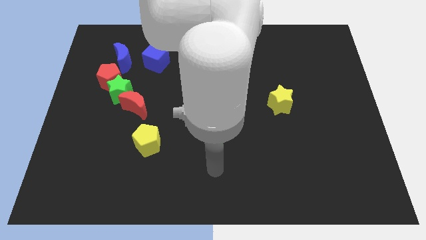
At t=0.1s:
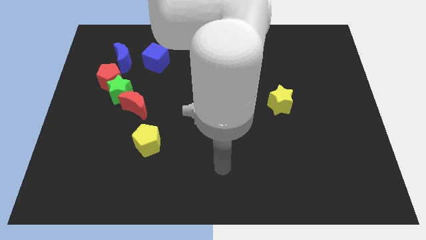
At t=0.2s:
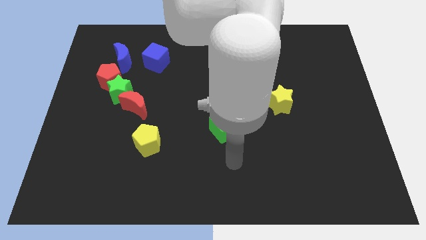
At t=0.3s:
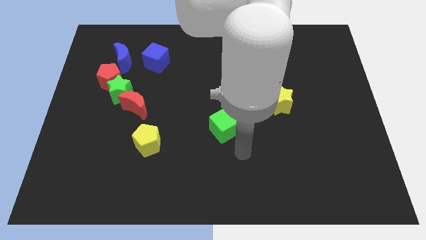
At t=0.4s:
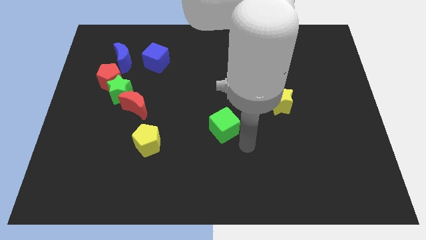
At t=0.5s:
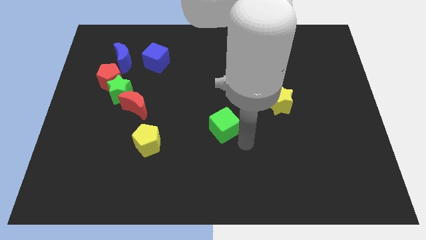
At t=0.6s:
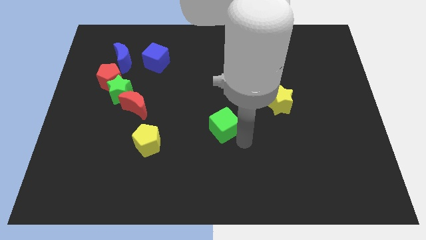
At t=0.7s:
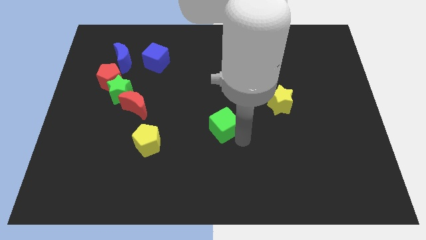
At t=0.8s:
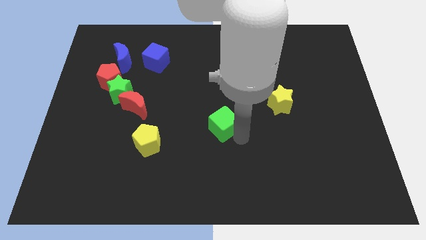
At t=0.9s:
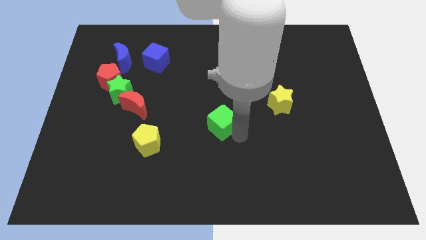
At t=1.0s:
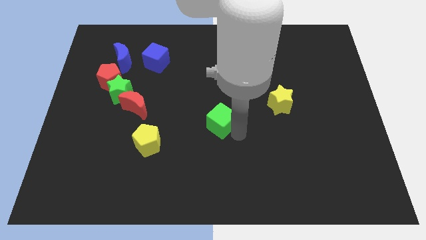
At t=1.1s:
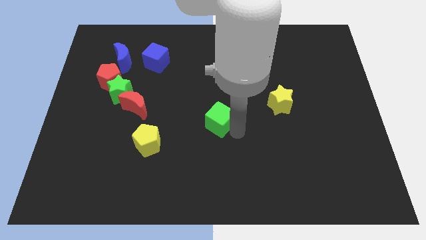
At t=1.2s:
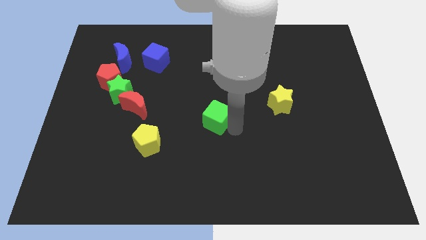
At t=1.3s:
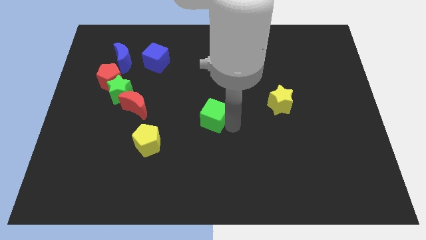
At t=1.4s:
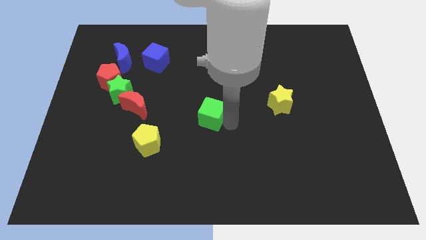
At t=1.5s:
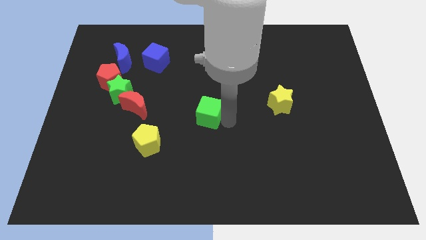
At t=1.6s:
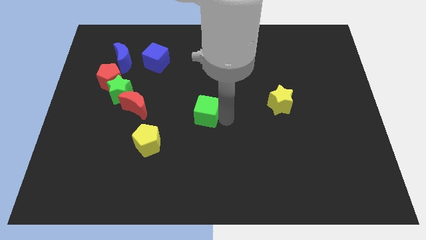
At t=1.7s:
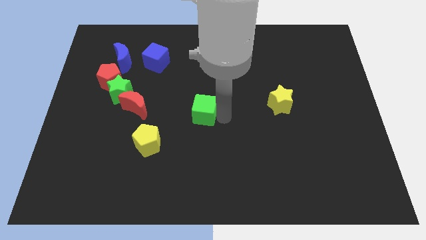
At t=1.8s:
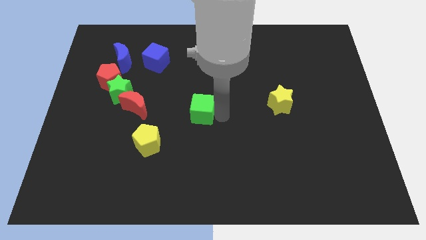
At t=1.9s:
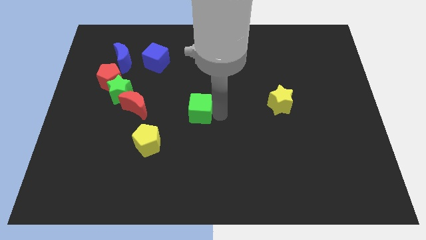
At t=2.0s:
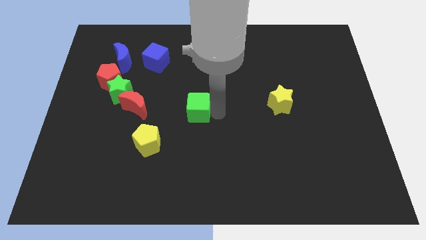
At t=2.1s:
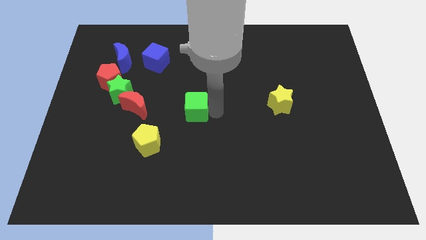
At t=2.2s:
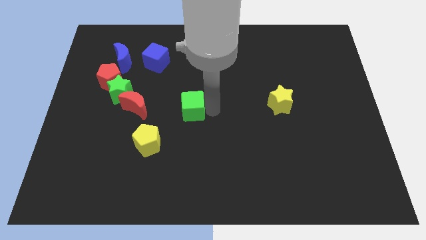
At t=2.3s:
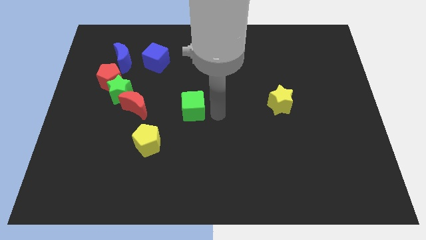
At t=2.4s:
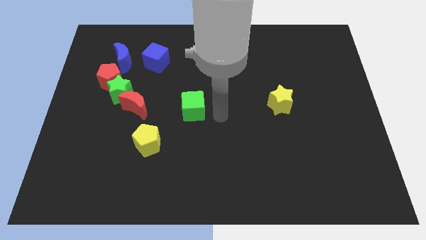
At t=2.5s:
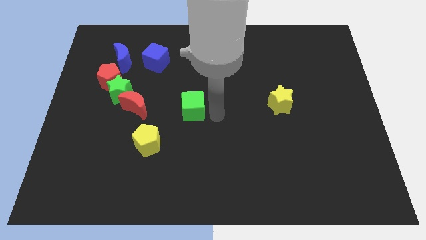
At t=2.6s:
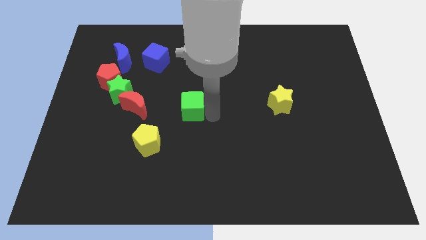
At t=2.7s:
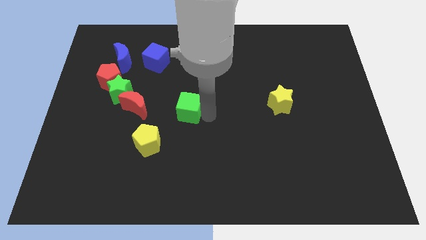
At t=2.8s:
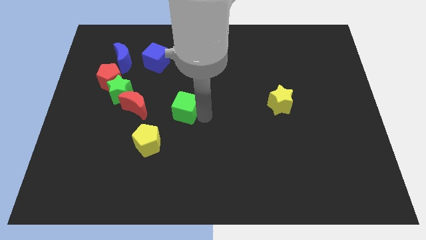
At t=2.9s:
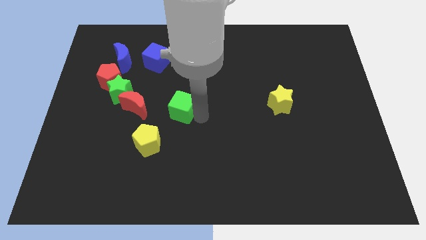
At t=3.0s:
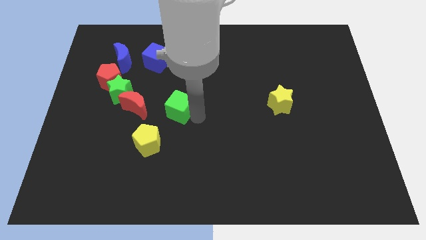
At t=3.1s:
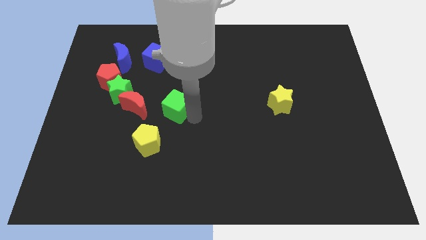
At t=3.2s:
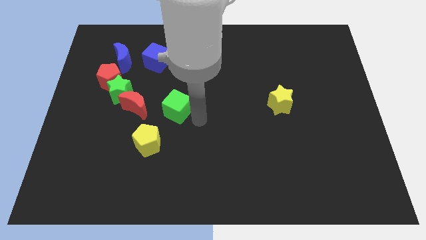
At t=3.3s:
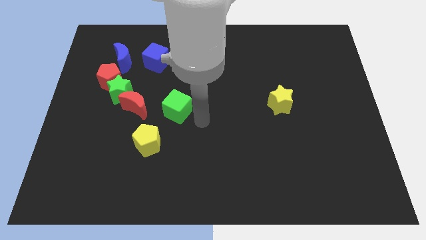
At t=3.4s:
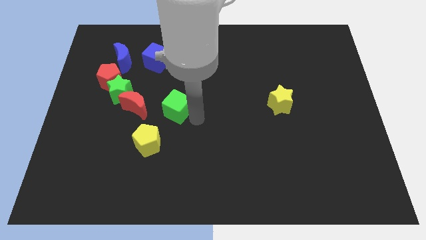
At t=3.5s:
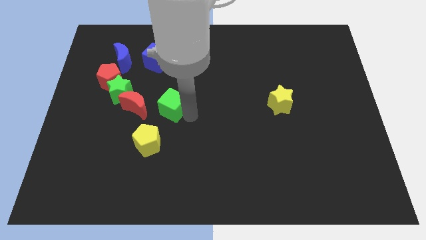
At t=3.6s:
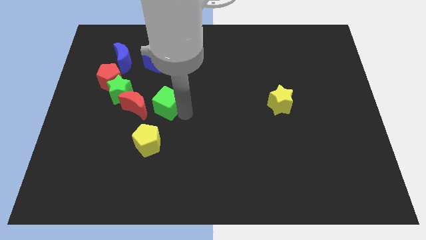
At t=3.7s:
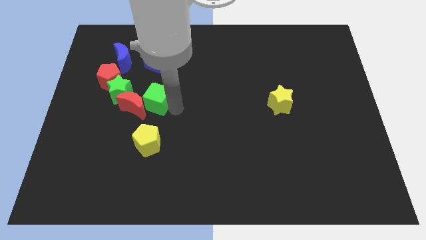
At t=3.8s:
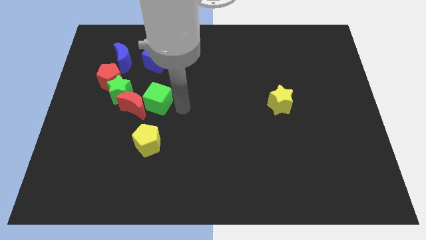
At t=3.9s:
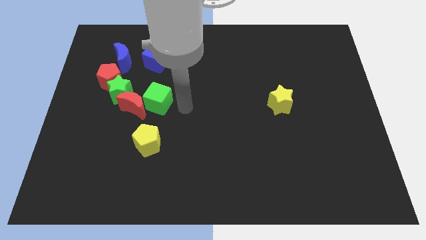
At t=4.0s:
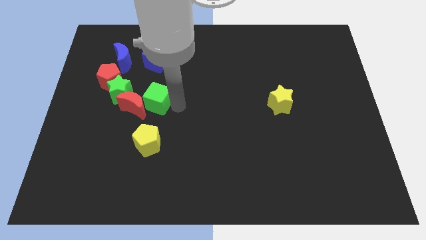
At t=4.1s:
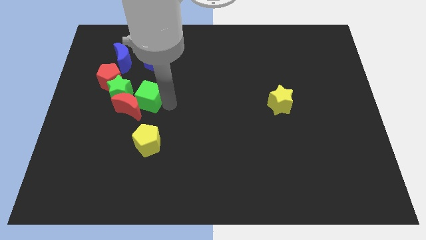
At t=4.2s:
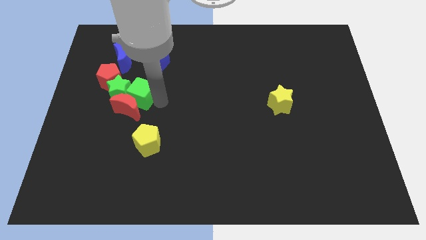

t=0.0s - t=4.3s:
put the green cube towards the green star

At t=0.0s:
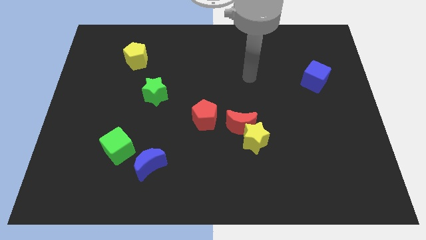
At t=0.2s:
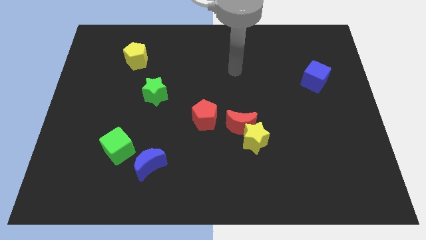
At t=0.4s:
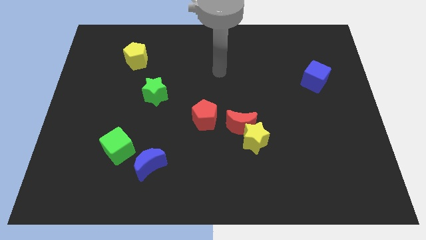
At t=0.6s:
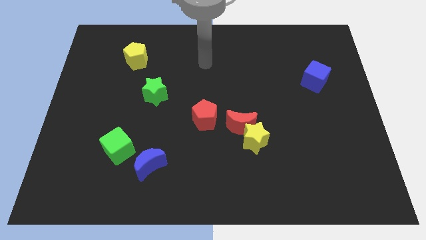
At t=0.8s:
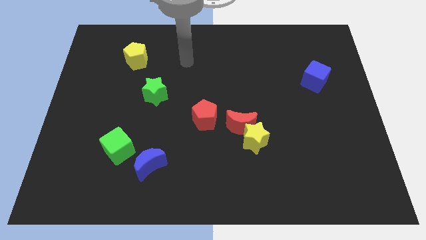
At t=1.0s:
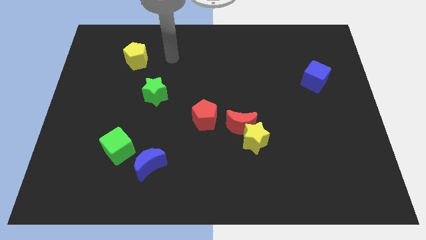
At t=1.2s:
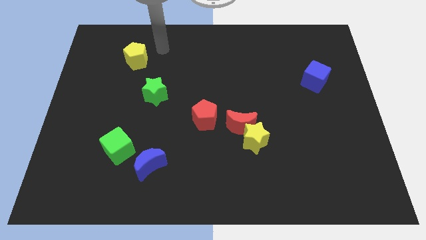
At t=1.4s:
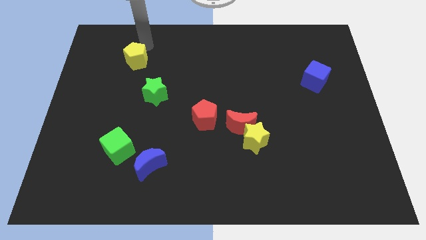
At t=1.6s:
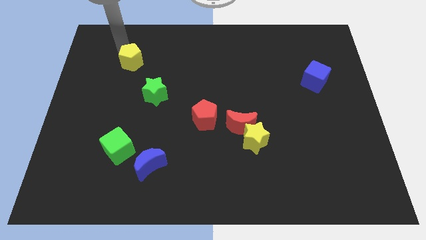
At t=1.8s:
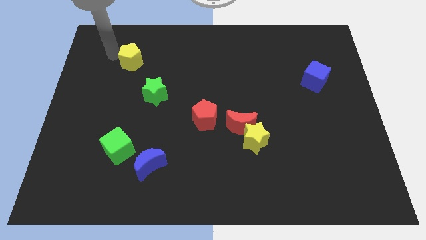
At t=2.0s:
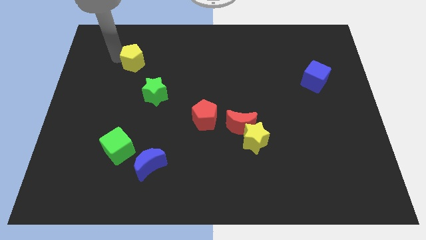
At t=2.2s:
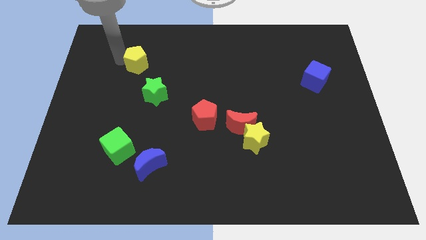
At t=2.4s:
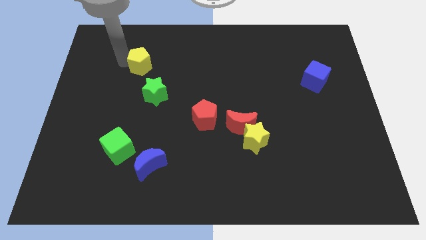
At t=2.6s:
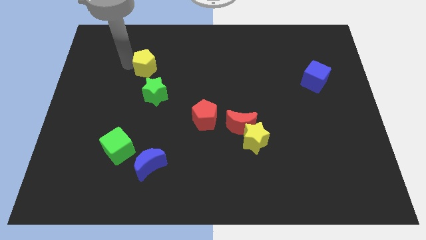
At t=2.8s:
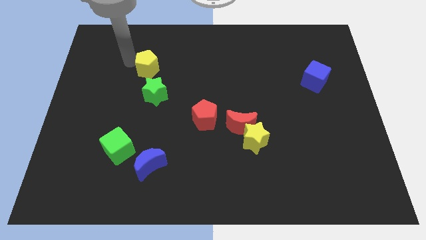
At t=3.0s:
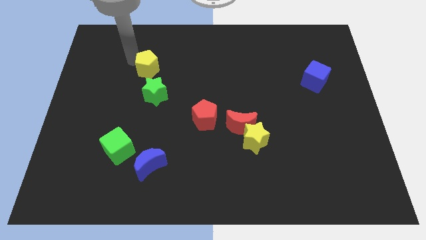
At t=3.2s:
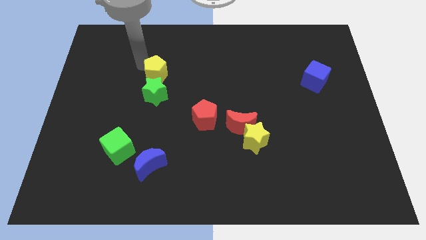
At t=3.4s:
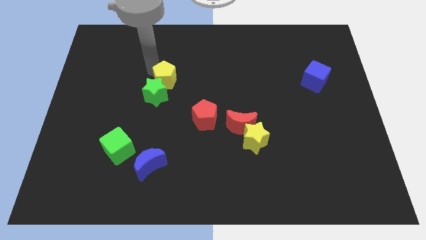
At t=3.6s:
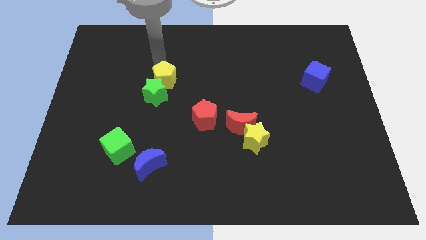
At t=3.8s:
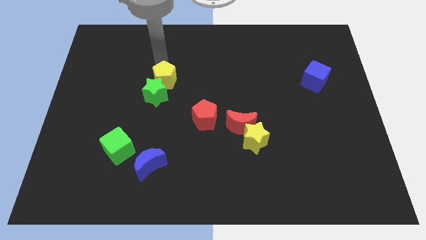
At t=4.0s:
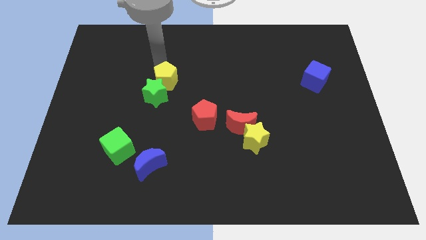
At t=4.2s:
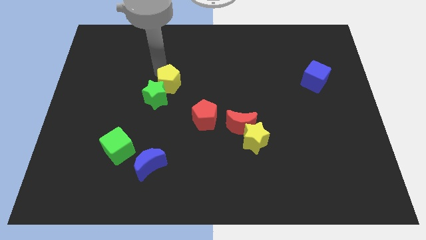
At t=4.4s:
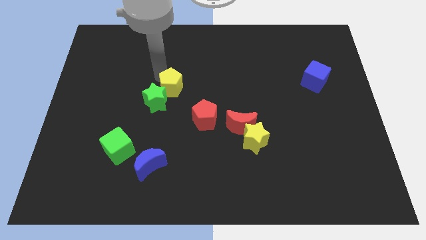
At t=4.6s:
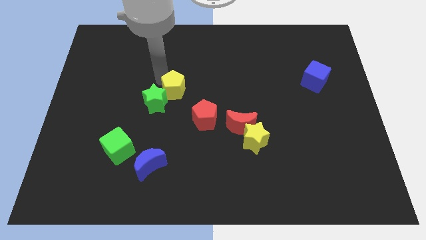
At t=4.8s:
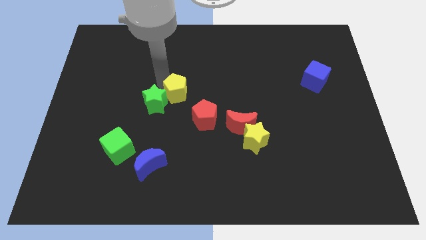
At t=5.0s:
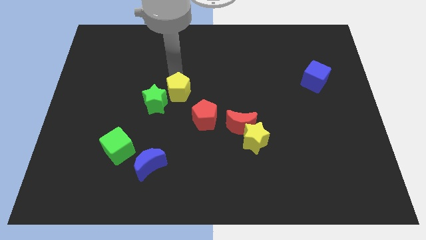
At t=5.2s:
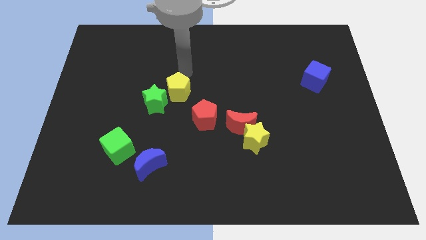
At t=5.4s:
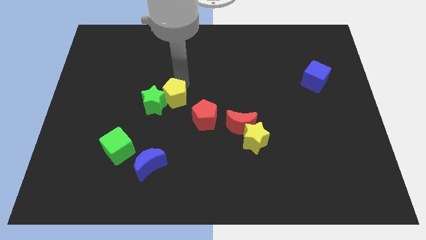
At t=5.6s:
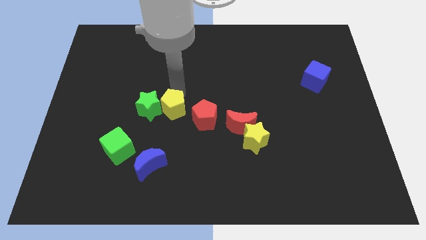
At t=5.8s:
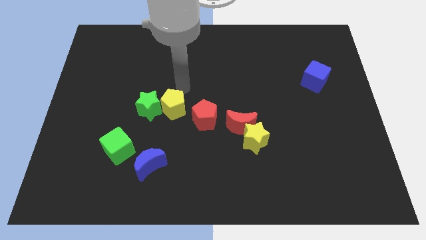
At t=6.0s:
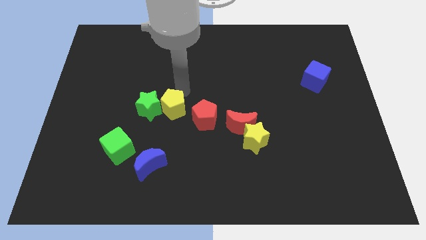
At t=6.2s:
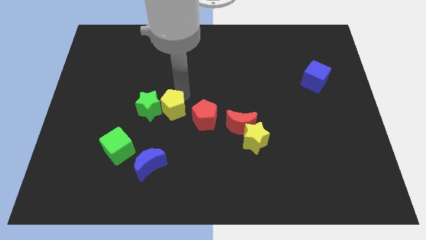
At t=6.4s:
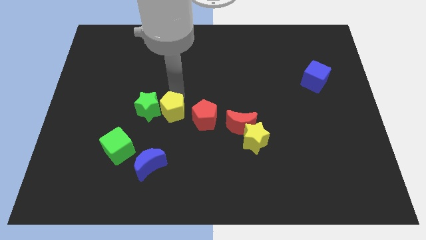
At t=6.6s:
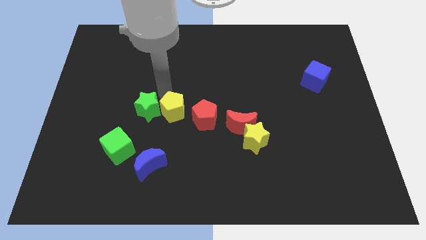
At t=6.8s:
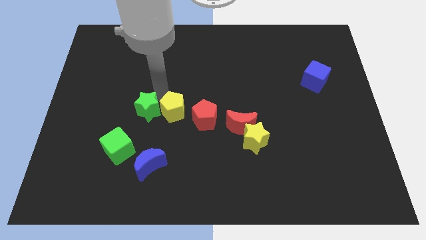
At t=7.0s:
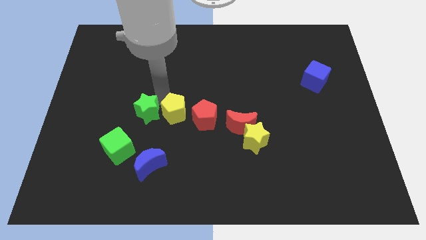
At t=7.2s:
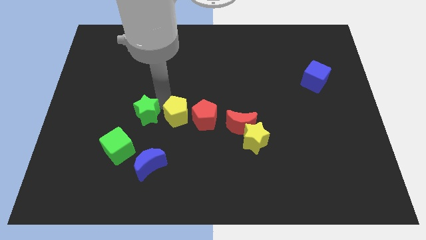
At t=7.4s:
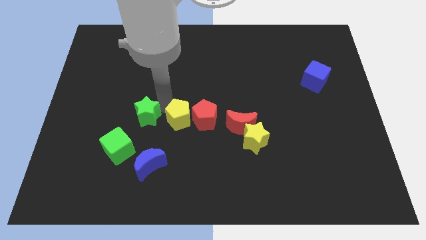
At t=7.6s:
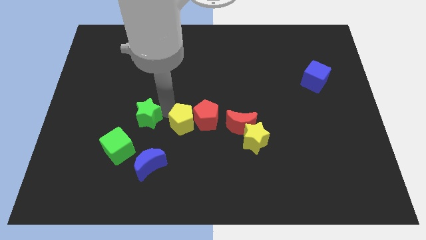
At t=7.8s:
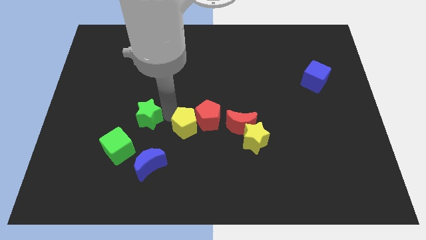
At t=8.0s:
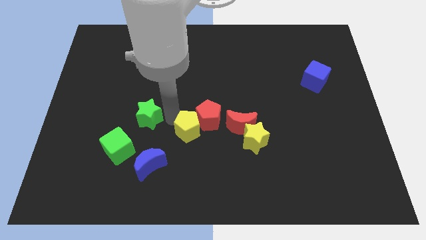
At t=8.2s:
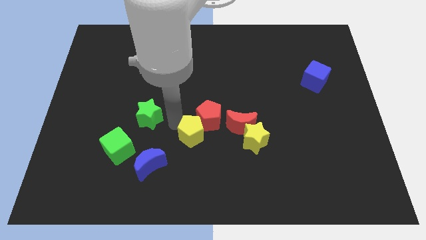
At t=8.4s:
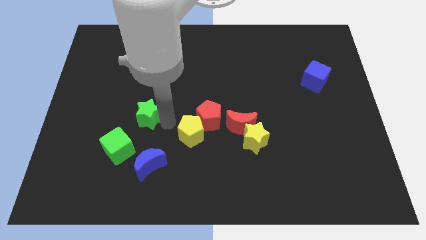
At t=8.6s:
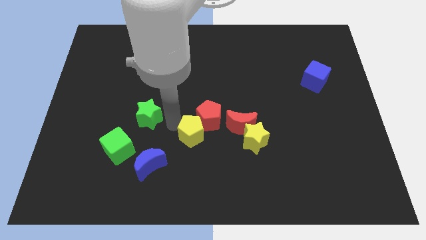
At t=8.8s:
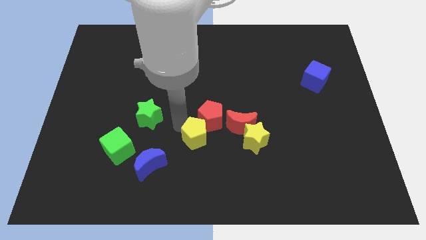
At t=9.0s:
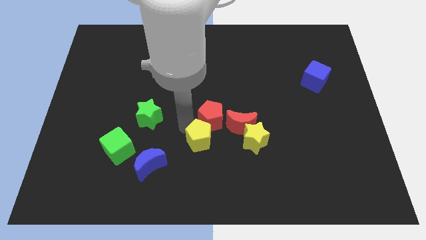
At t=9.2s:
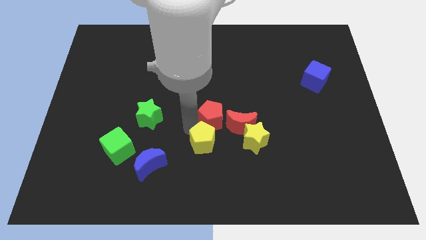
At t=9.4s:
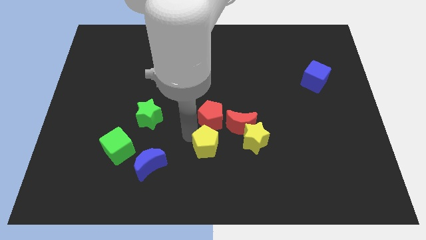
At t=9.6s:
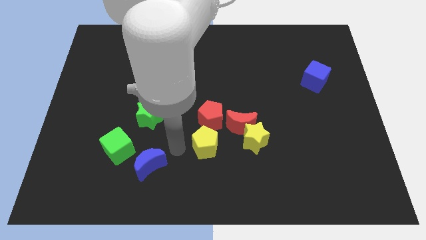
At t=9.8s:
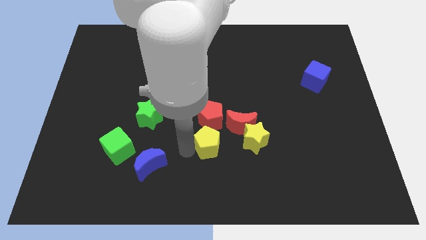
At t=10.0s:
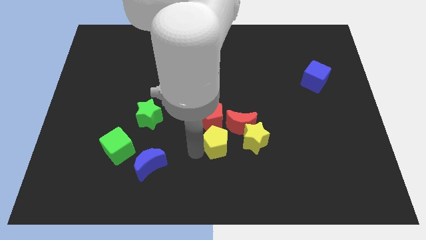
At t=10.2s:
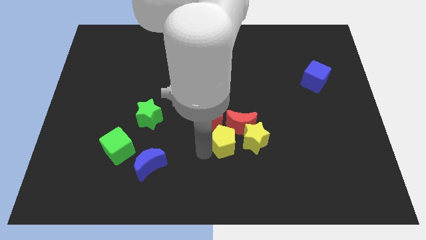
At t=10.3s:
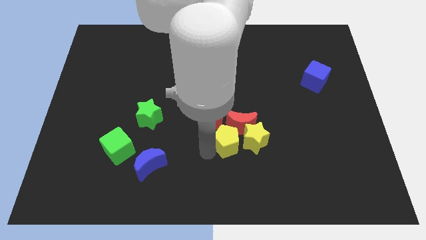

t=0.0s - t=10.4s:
slide the yellow pentagon to the yellow star
